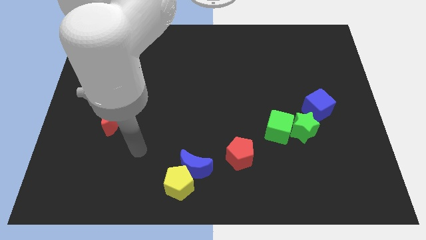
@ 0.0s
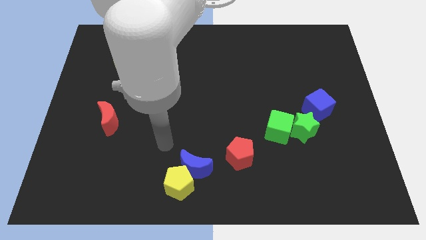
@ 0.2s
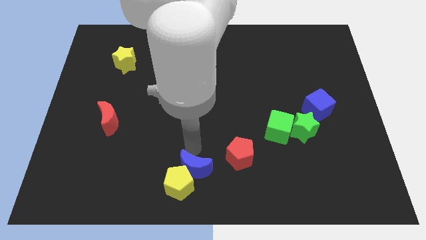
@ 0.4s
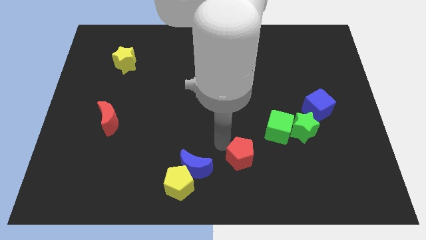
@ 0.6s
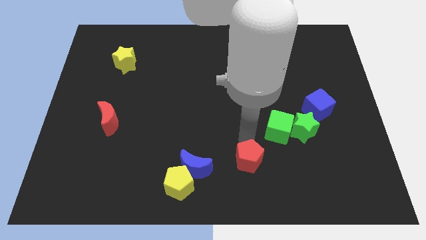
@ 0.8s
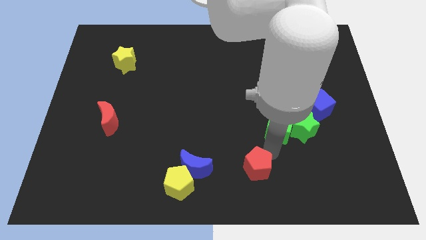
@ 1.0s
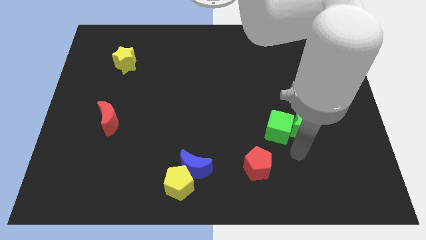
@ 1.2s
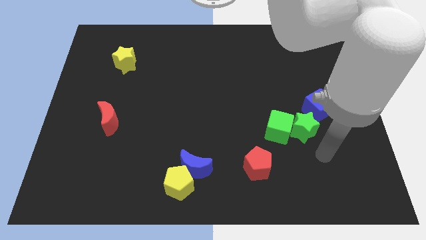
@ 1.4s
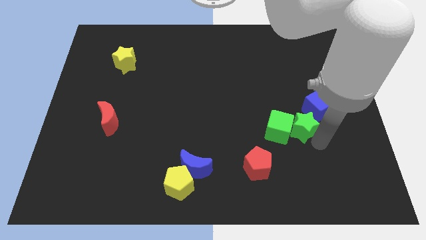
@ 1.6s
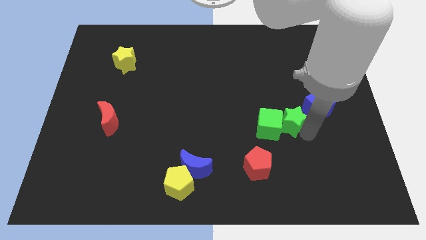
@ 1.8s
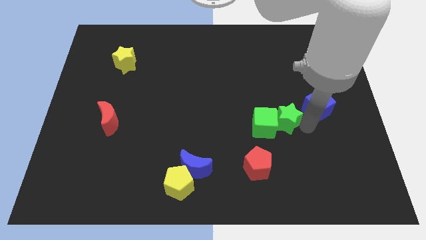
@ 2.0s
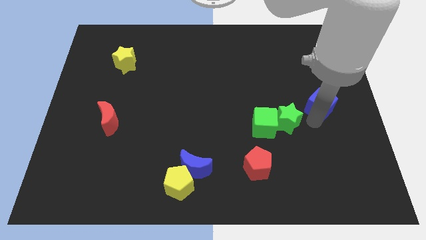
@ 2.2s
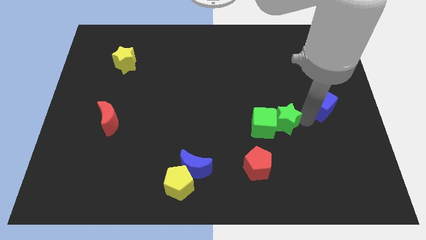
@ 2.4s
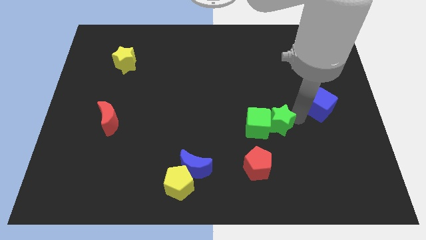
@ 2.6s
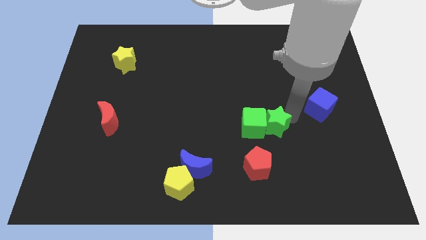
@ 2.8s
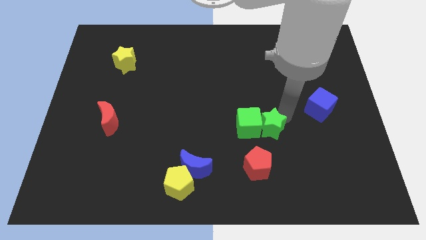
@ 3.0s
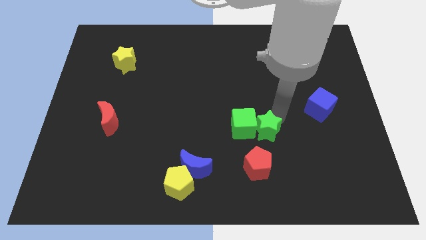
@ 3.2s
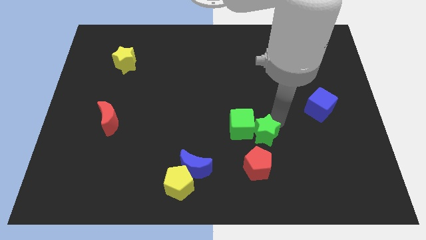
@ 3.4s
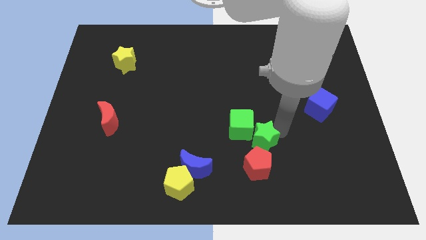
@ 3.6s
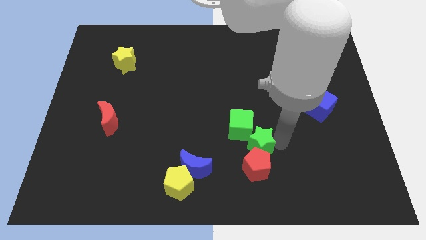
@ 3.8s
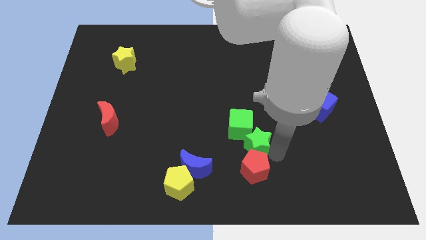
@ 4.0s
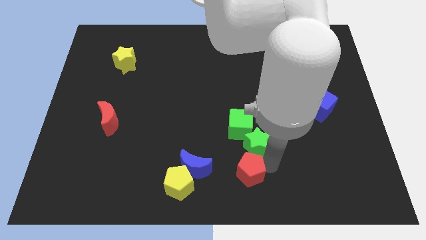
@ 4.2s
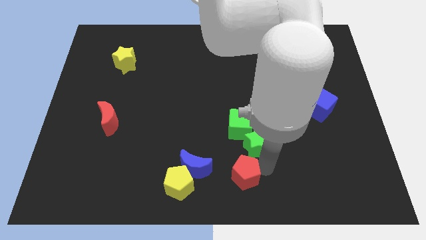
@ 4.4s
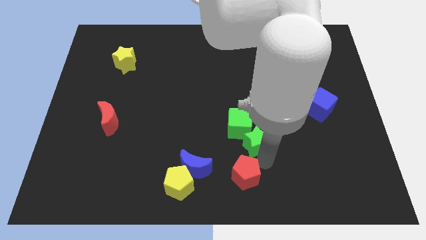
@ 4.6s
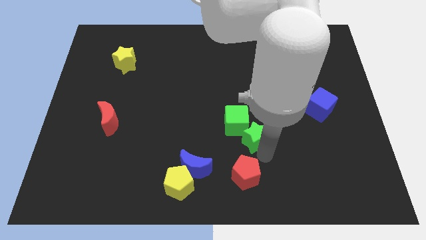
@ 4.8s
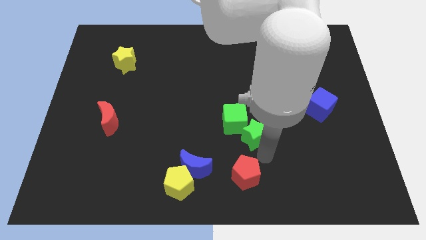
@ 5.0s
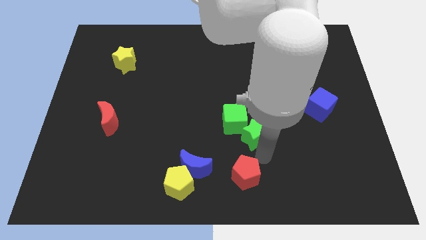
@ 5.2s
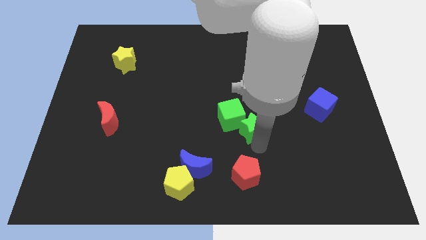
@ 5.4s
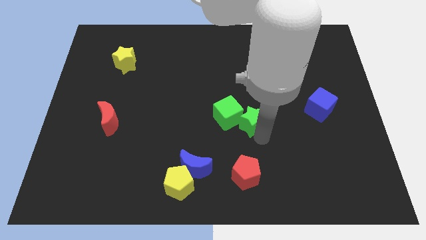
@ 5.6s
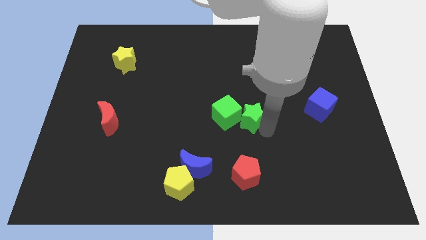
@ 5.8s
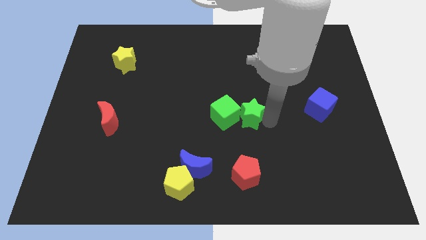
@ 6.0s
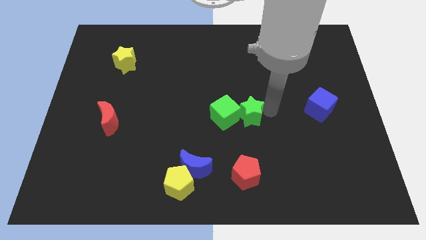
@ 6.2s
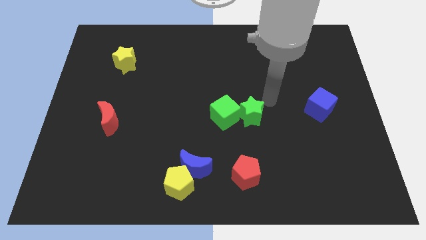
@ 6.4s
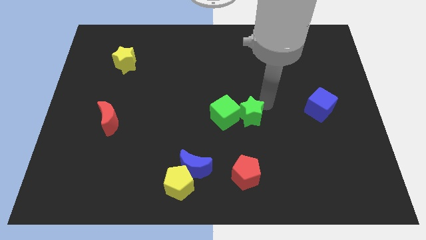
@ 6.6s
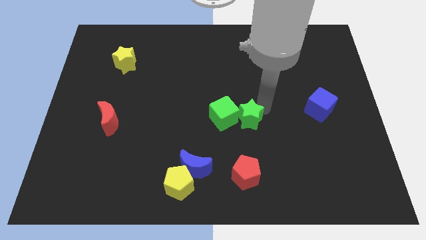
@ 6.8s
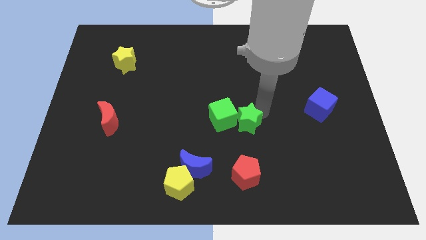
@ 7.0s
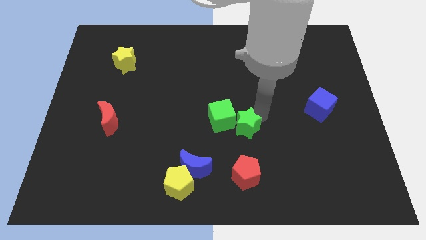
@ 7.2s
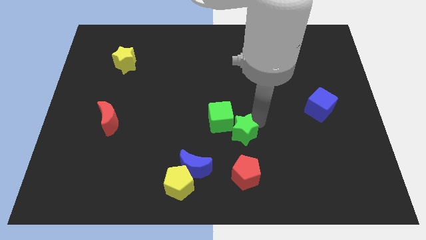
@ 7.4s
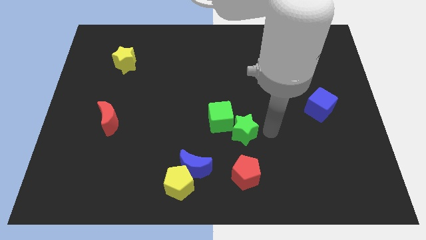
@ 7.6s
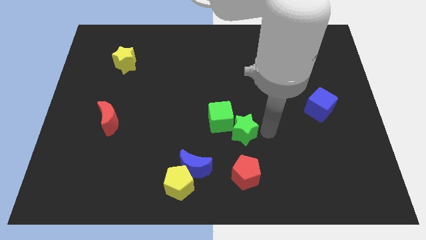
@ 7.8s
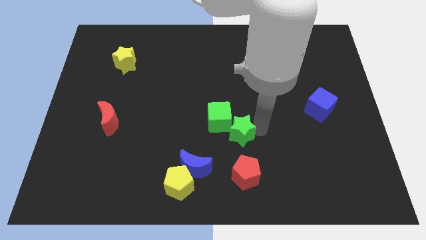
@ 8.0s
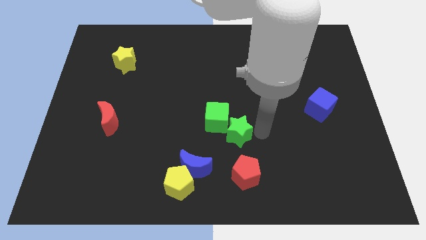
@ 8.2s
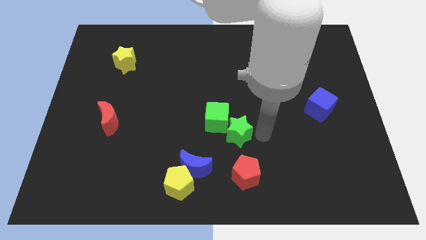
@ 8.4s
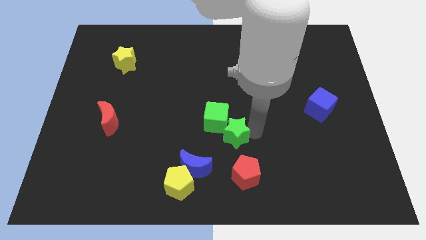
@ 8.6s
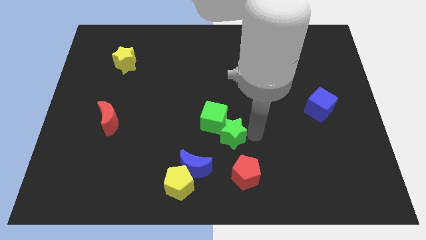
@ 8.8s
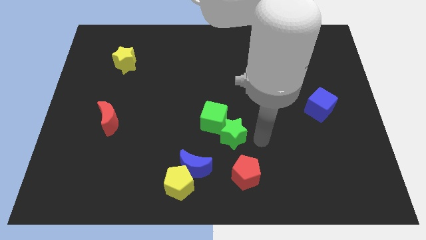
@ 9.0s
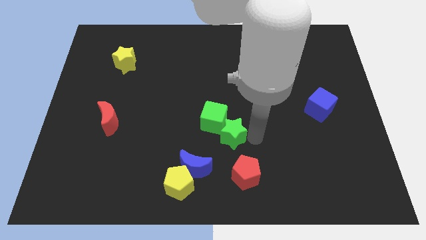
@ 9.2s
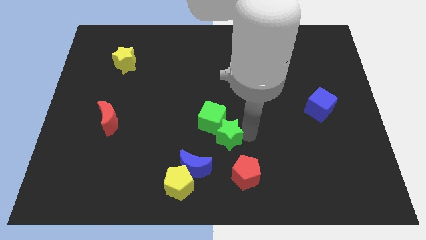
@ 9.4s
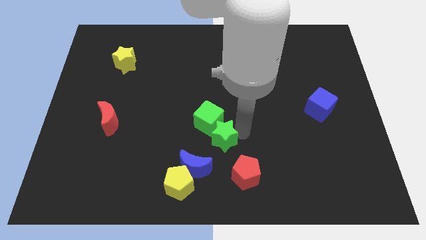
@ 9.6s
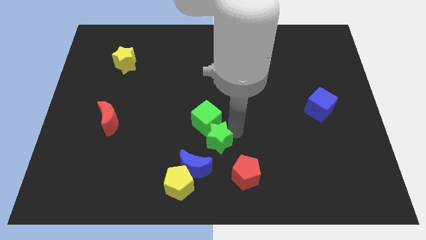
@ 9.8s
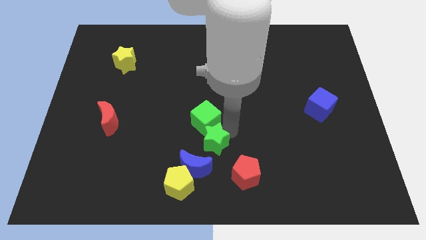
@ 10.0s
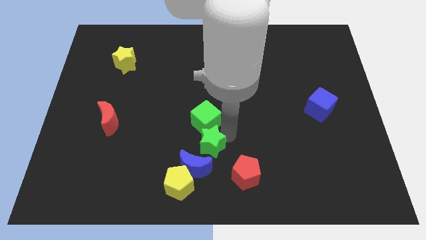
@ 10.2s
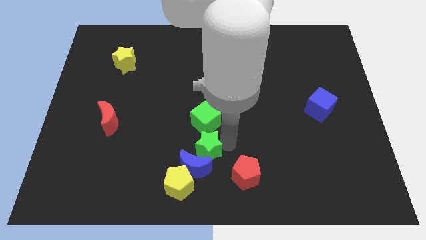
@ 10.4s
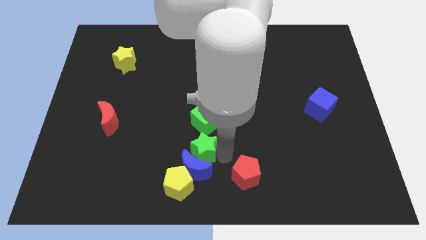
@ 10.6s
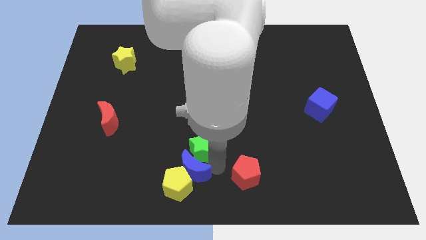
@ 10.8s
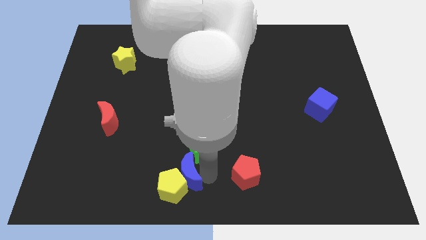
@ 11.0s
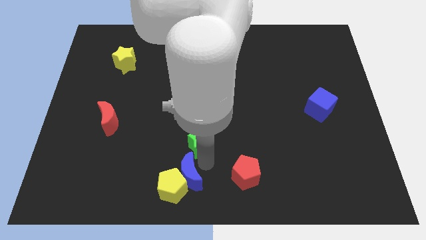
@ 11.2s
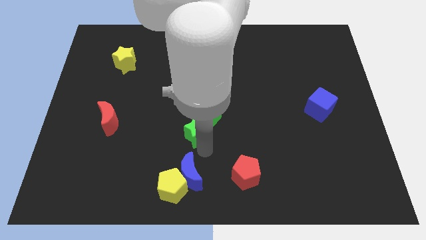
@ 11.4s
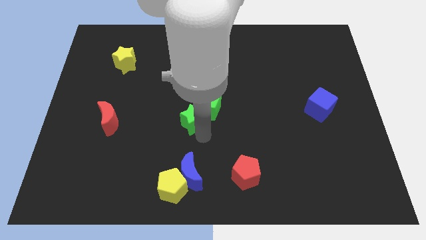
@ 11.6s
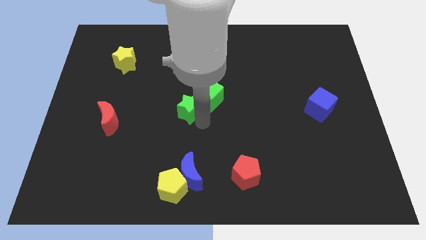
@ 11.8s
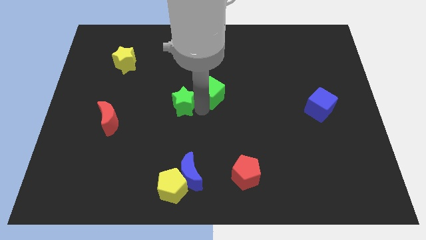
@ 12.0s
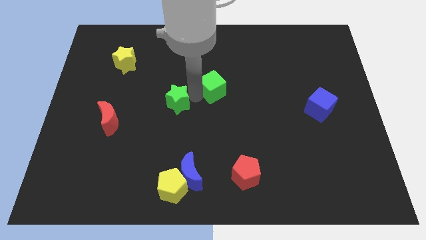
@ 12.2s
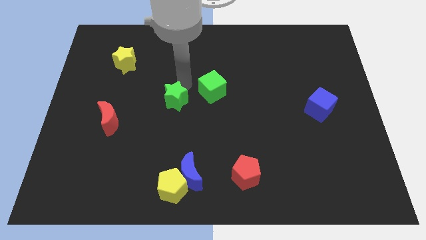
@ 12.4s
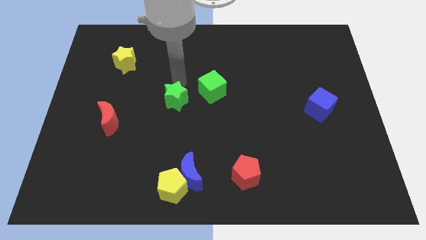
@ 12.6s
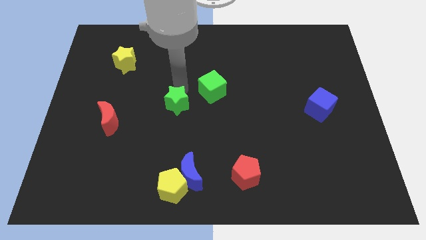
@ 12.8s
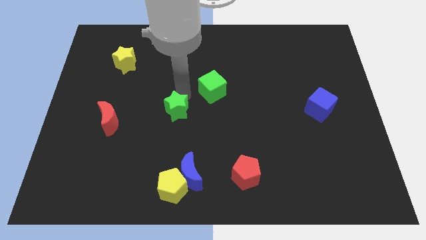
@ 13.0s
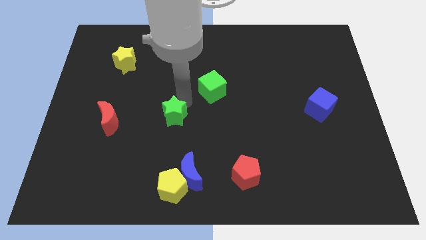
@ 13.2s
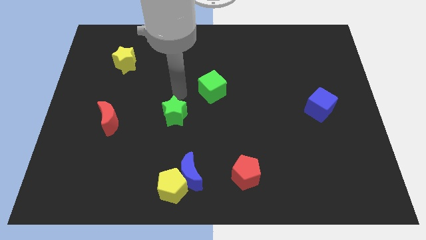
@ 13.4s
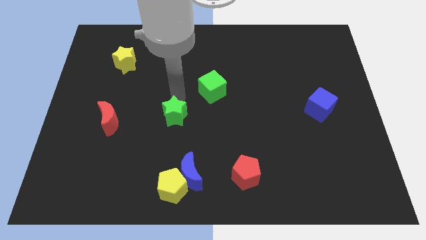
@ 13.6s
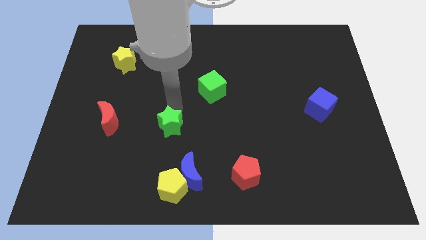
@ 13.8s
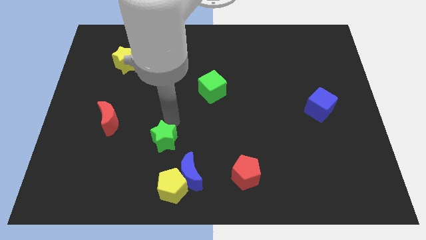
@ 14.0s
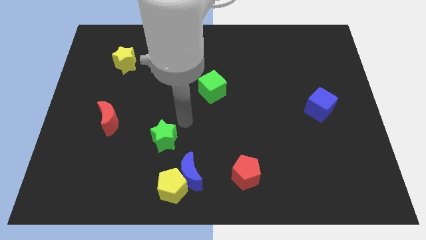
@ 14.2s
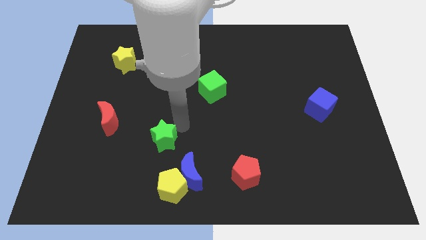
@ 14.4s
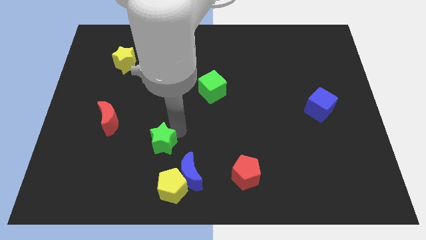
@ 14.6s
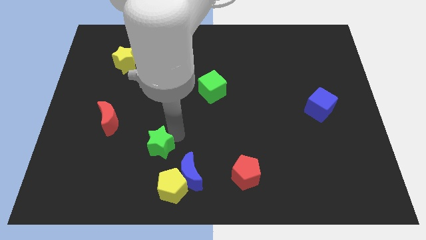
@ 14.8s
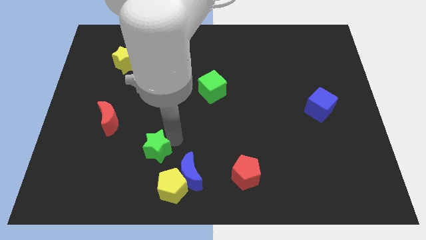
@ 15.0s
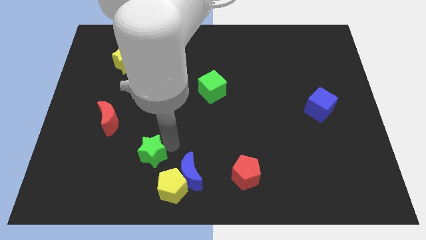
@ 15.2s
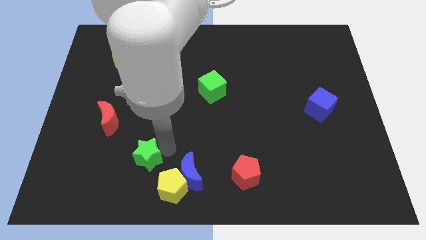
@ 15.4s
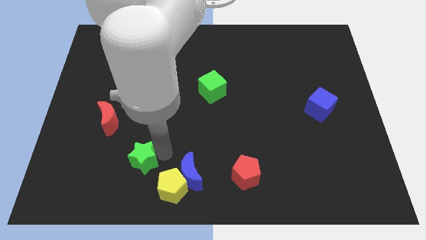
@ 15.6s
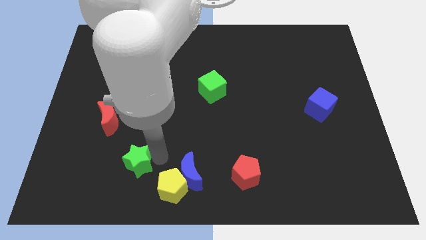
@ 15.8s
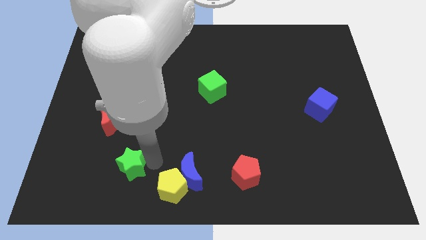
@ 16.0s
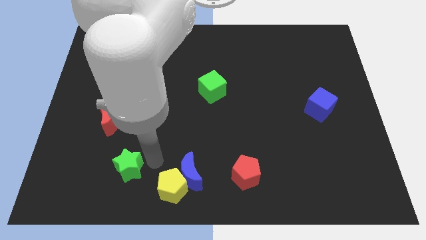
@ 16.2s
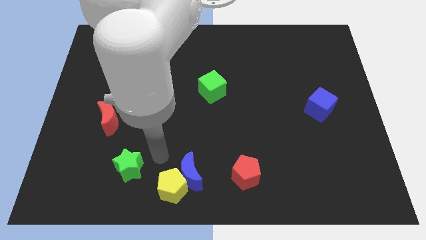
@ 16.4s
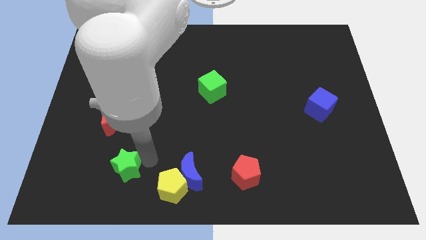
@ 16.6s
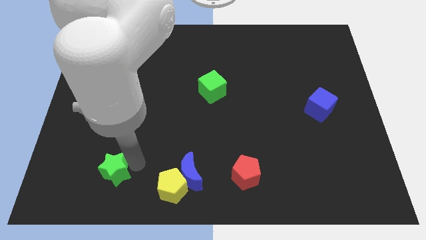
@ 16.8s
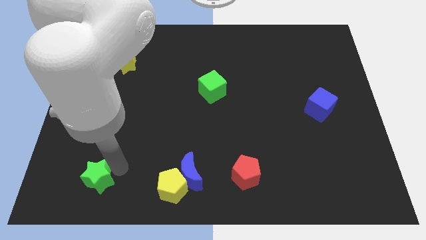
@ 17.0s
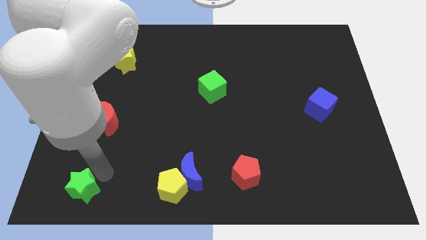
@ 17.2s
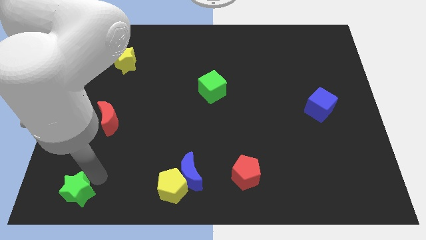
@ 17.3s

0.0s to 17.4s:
move the green star to the bottom left
